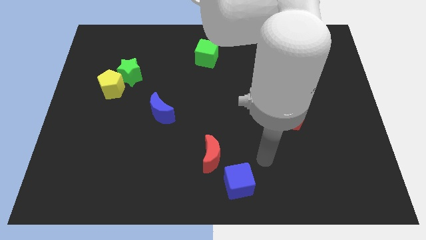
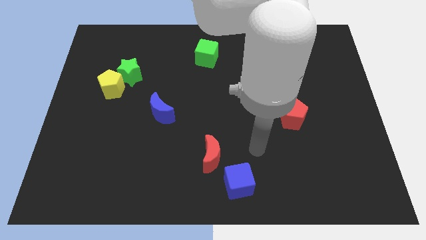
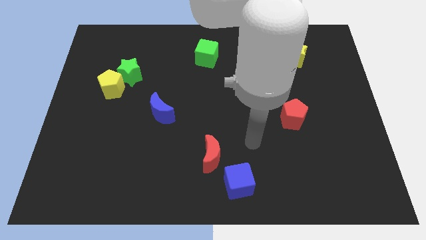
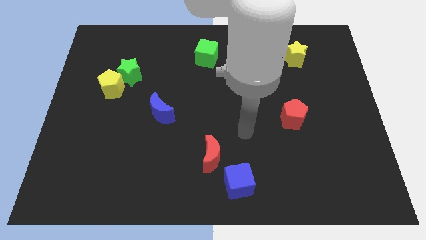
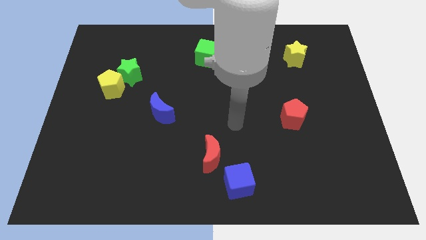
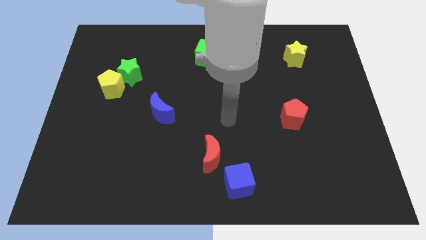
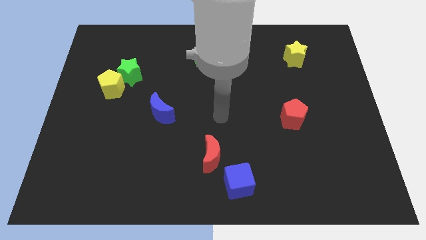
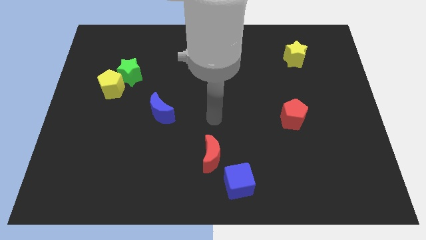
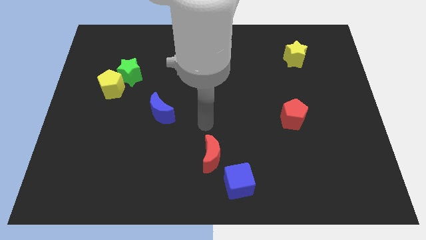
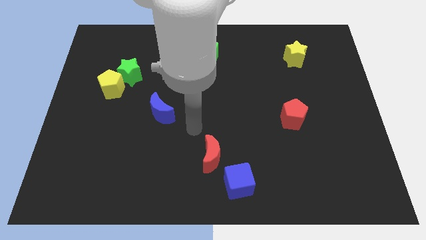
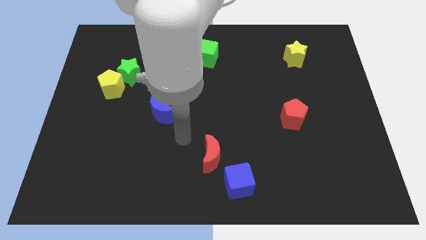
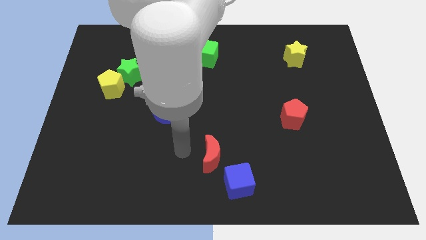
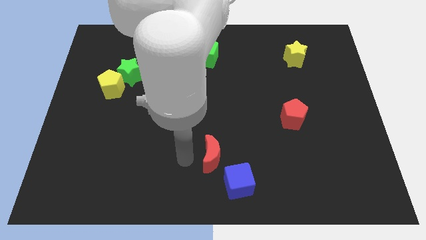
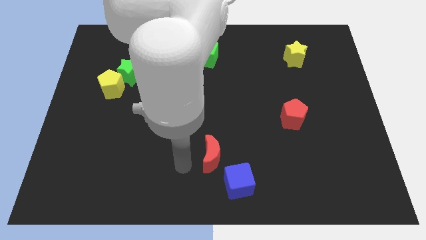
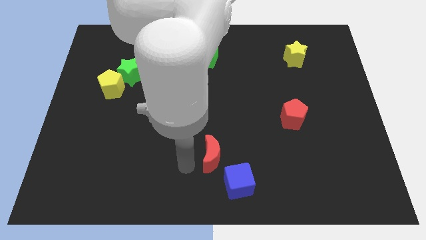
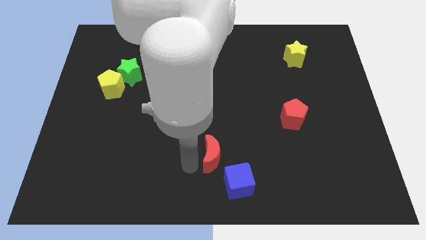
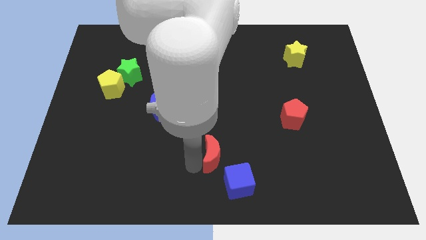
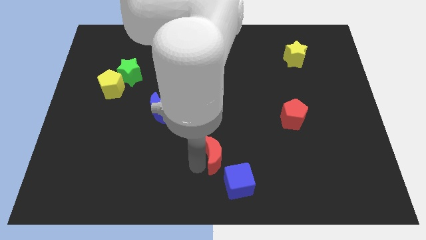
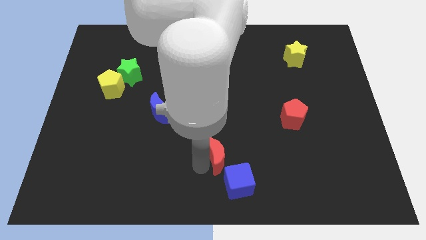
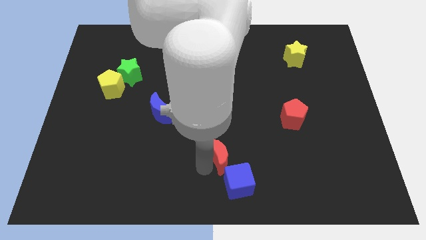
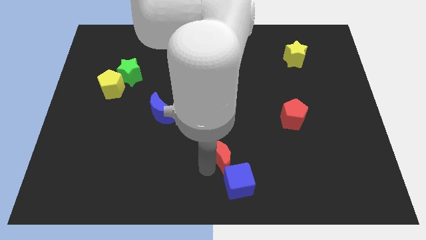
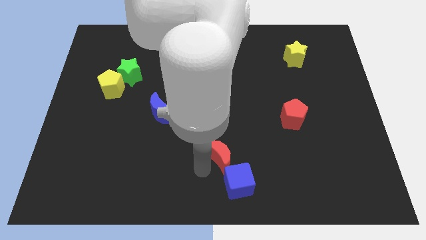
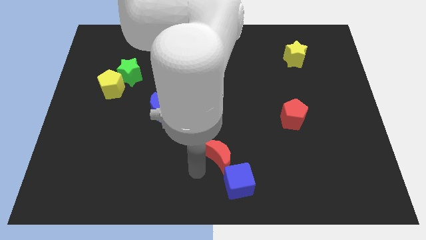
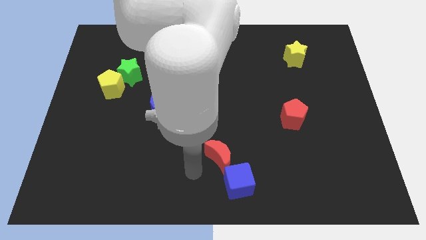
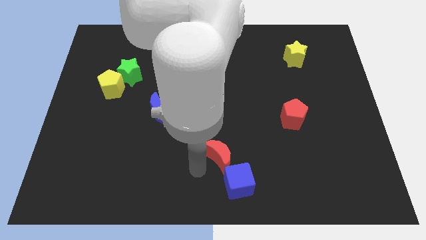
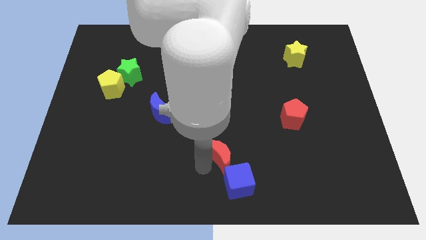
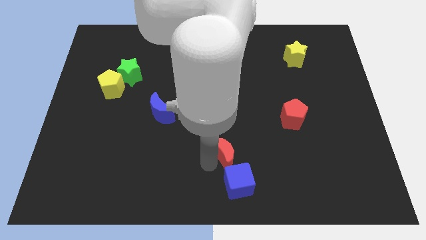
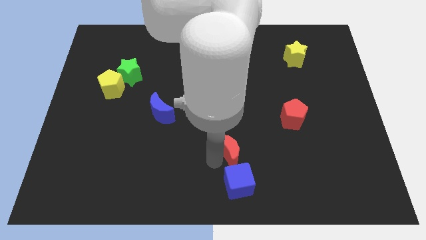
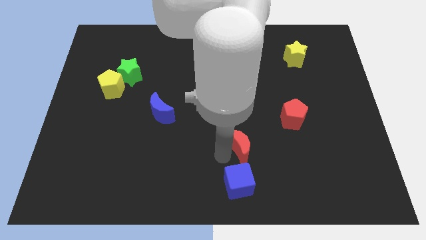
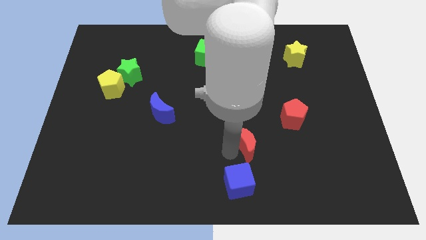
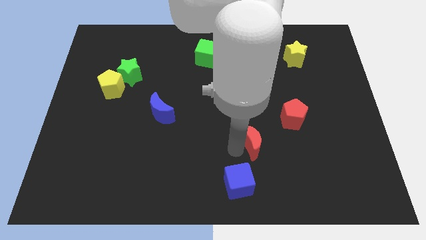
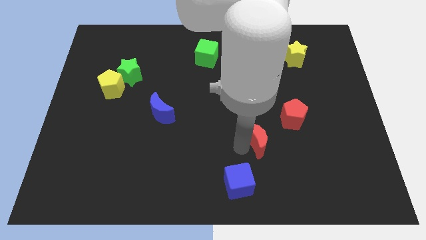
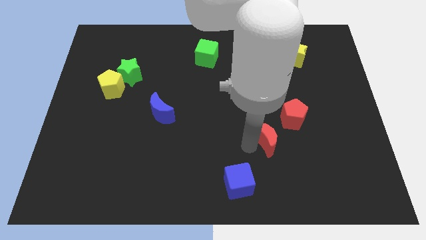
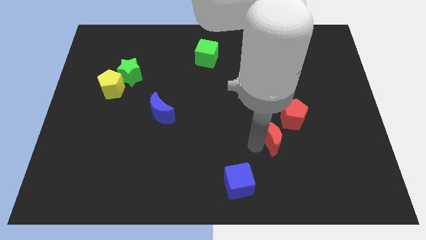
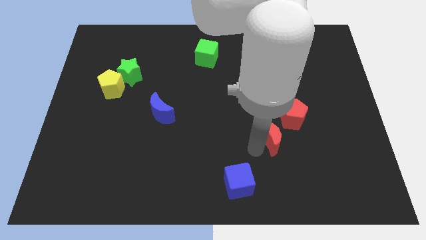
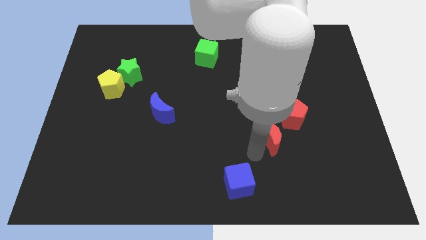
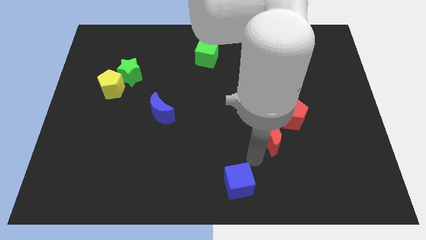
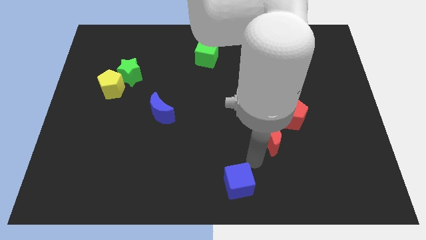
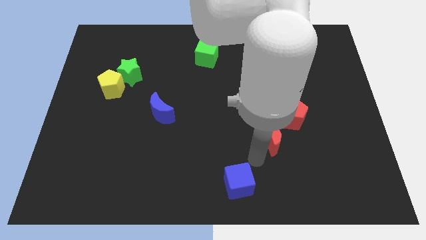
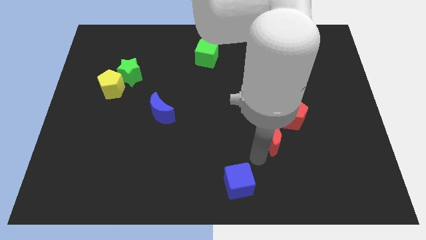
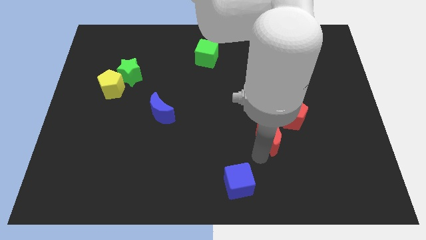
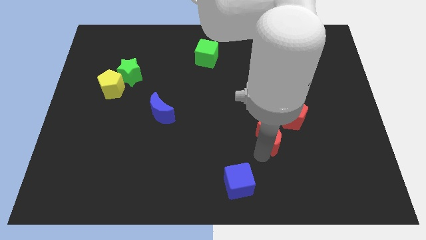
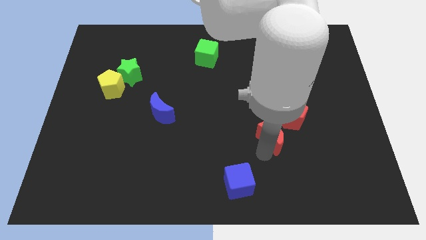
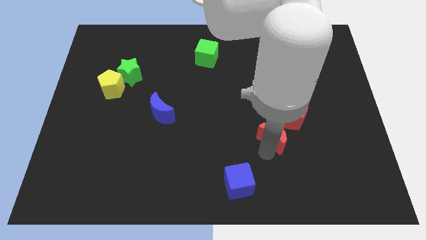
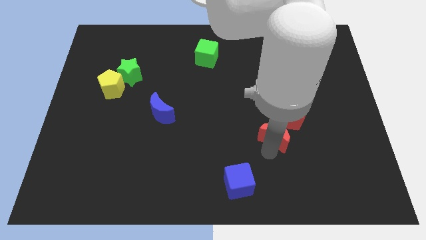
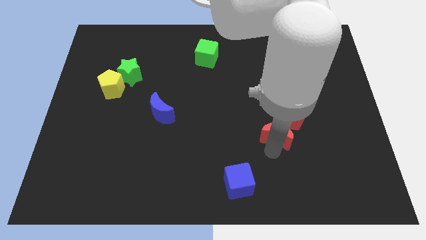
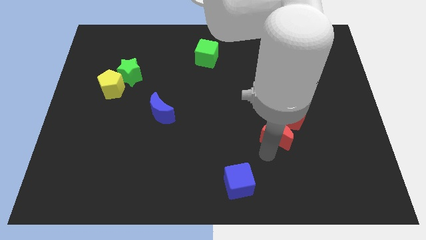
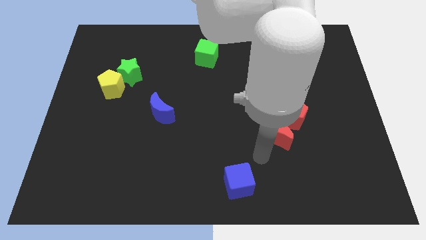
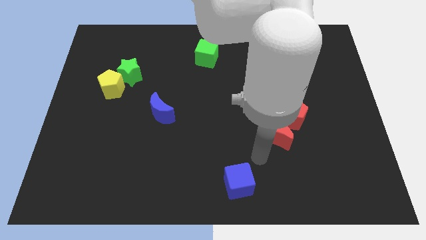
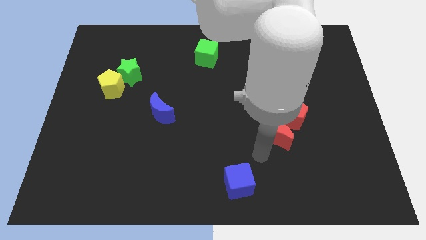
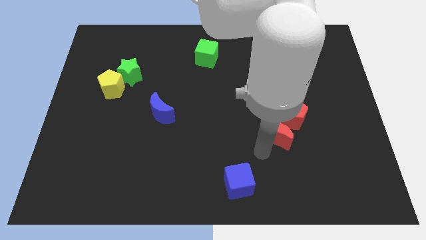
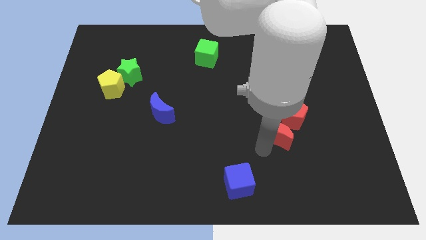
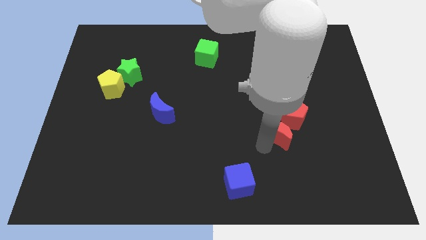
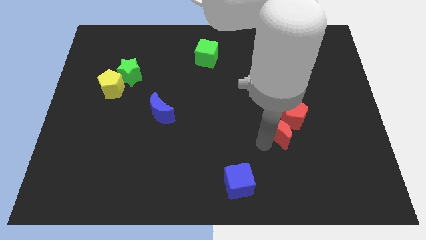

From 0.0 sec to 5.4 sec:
put the red moon next to the red pentagon
